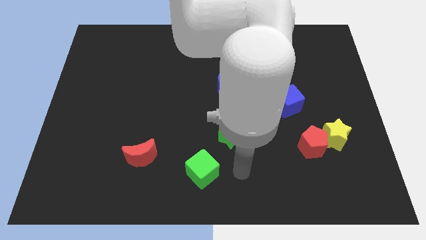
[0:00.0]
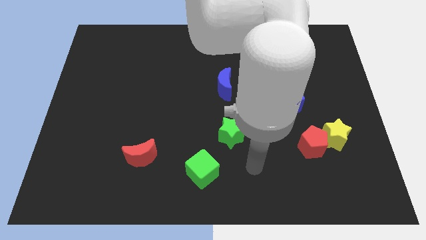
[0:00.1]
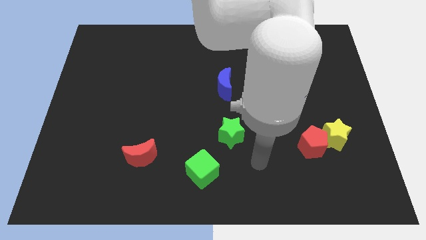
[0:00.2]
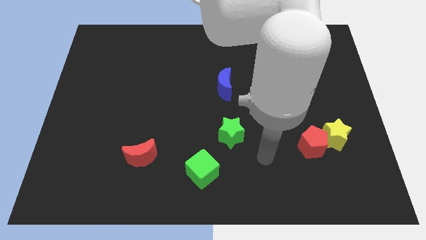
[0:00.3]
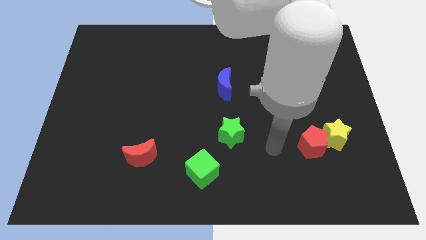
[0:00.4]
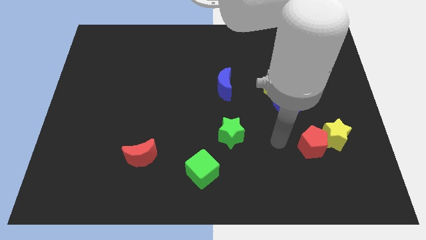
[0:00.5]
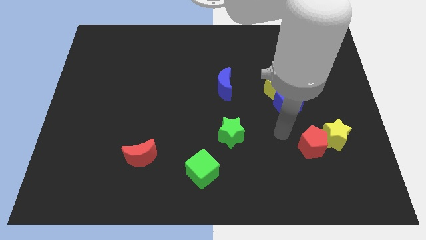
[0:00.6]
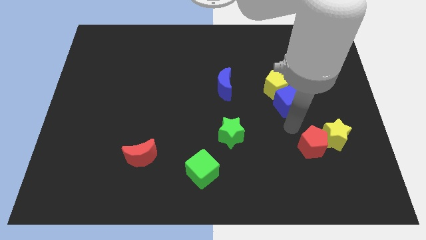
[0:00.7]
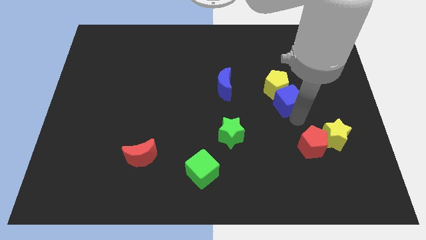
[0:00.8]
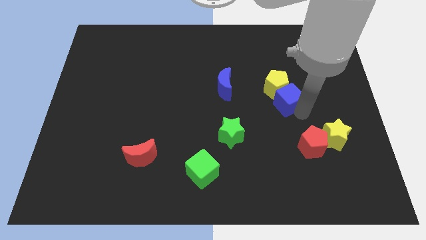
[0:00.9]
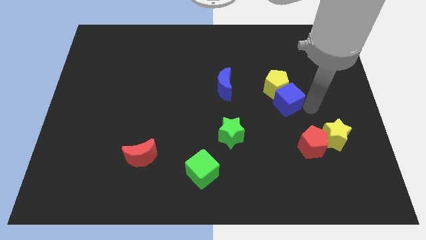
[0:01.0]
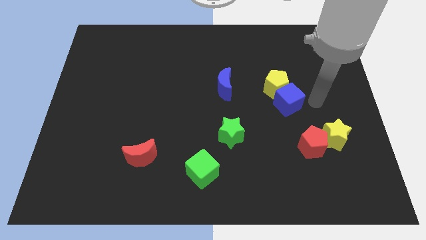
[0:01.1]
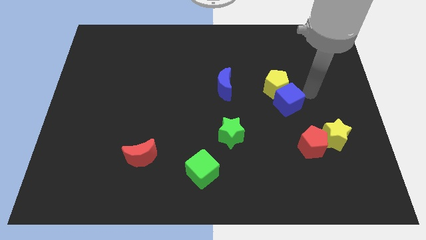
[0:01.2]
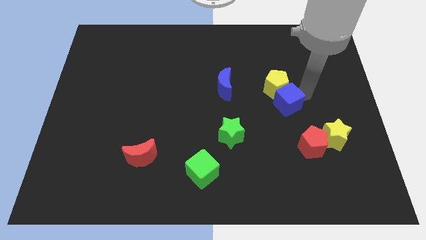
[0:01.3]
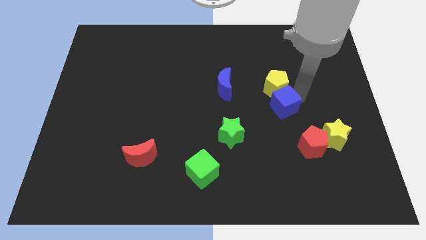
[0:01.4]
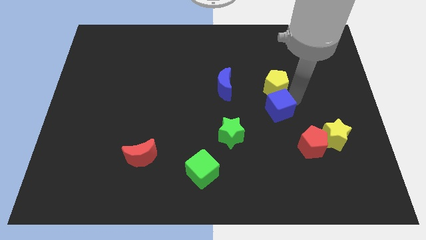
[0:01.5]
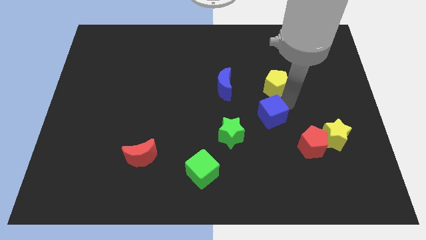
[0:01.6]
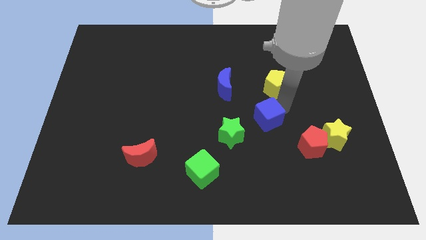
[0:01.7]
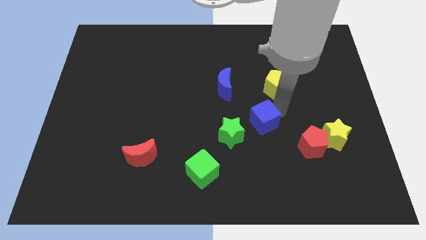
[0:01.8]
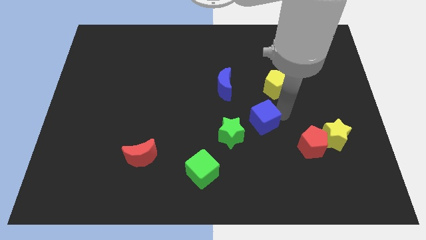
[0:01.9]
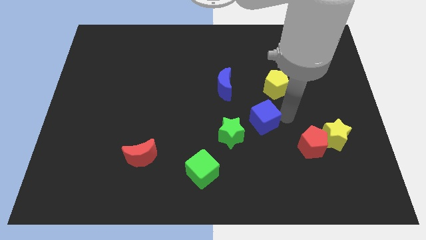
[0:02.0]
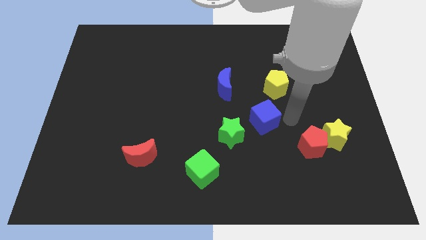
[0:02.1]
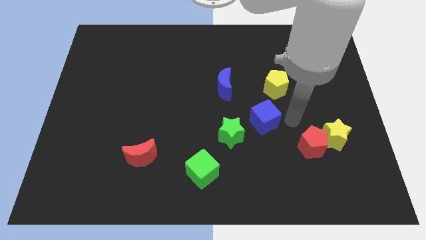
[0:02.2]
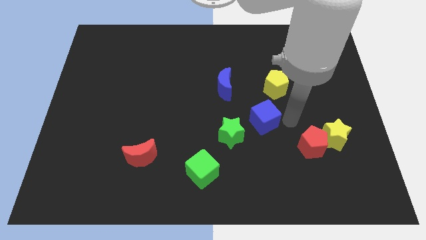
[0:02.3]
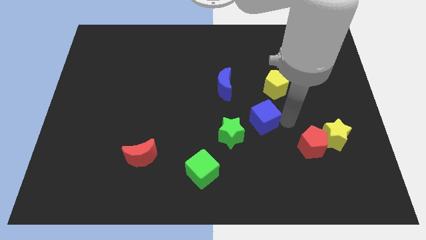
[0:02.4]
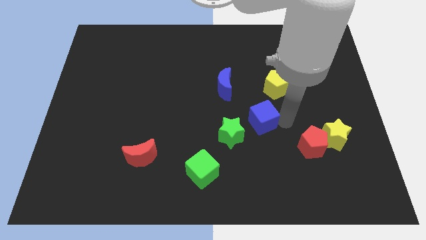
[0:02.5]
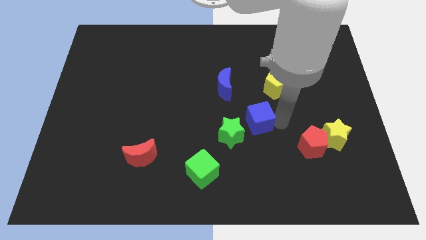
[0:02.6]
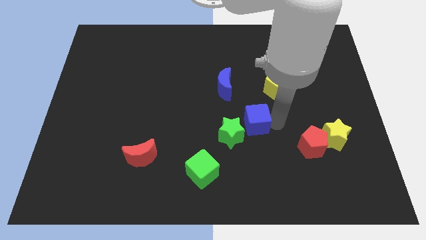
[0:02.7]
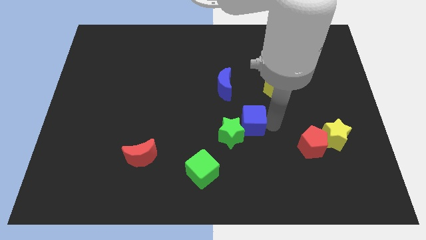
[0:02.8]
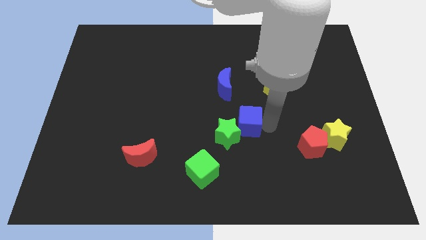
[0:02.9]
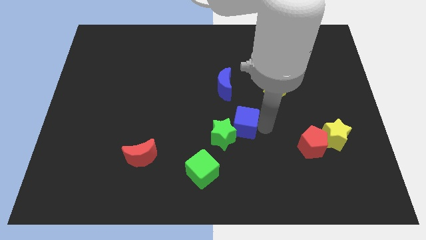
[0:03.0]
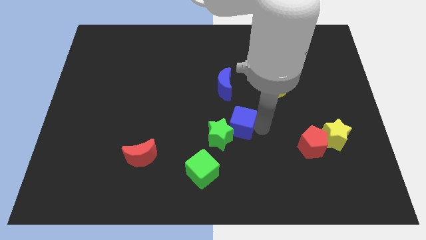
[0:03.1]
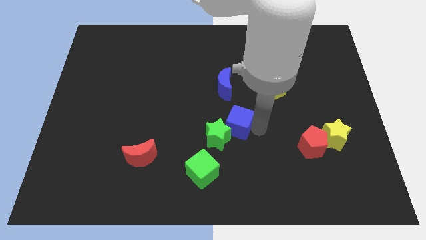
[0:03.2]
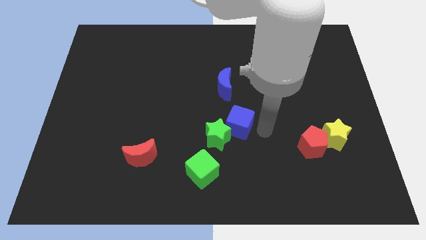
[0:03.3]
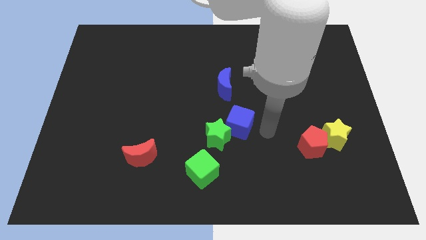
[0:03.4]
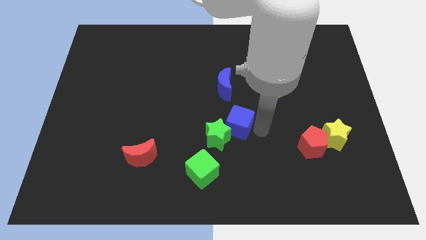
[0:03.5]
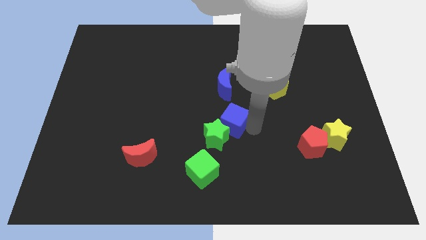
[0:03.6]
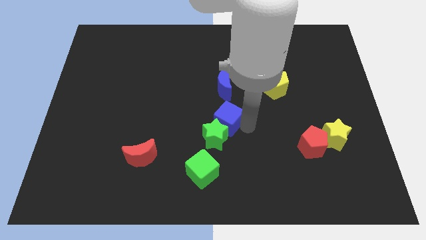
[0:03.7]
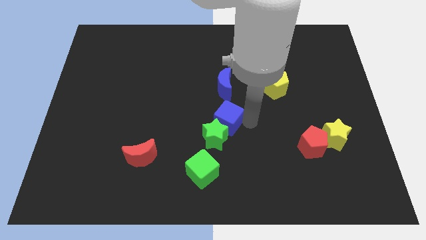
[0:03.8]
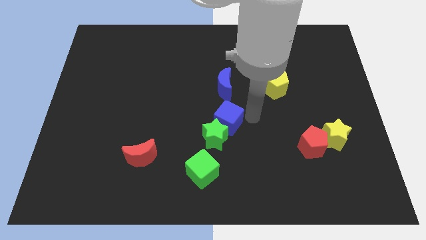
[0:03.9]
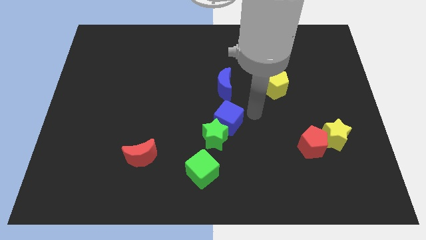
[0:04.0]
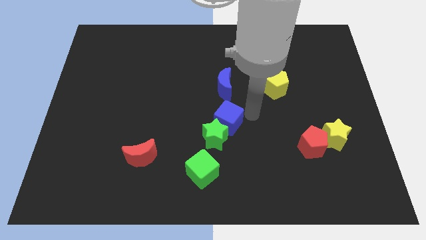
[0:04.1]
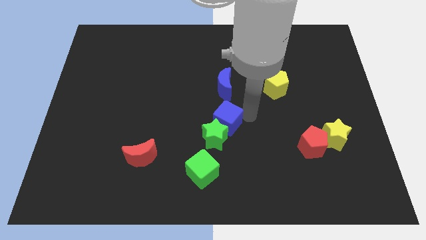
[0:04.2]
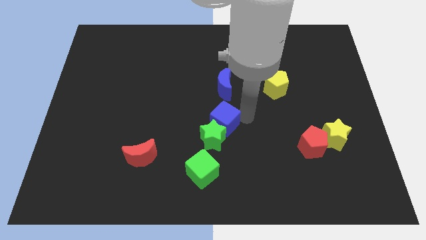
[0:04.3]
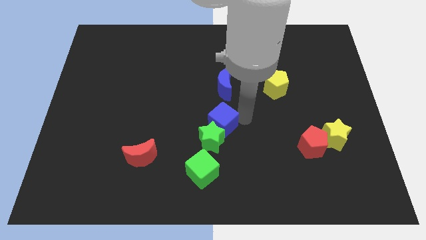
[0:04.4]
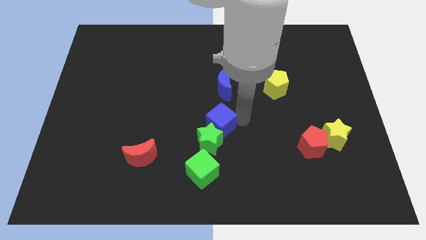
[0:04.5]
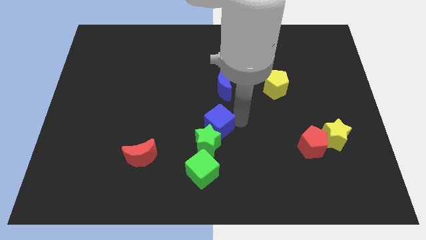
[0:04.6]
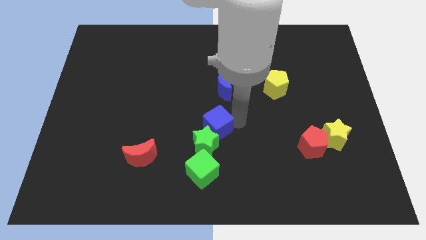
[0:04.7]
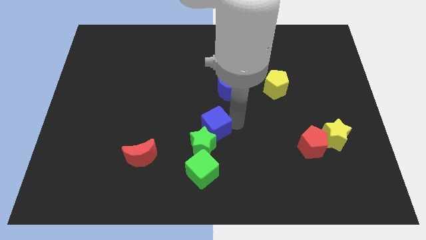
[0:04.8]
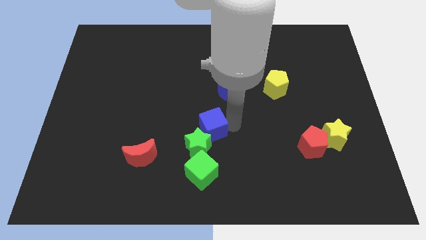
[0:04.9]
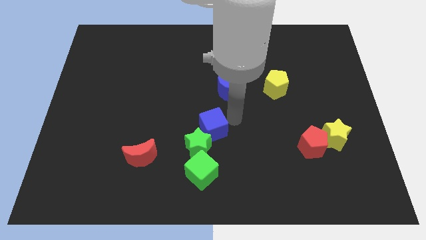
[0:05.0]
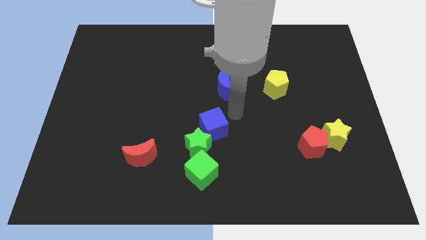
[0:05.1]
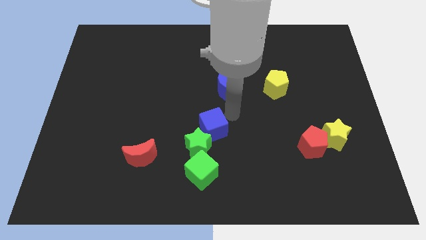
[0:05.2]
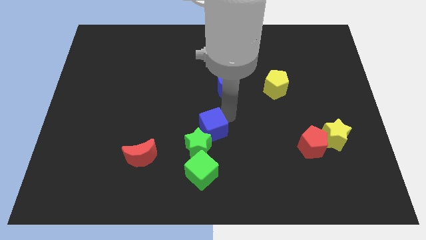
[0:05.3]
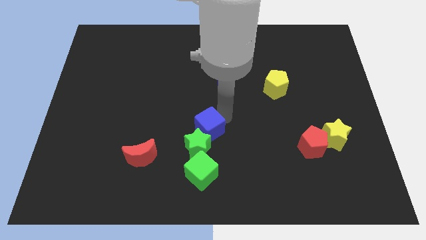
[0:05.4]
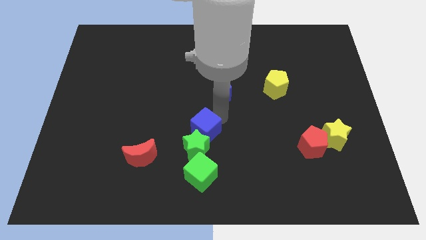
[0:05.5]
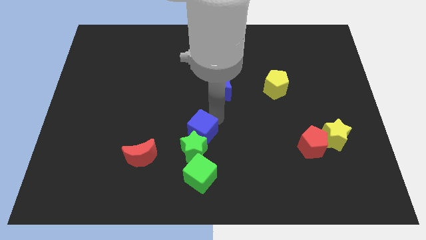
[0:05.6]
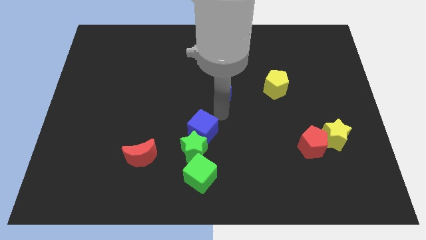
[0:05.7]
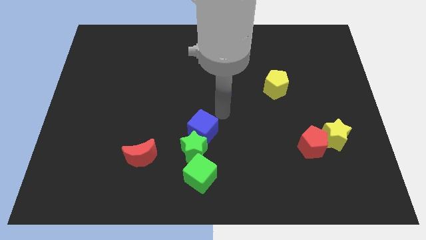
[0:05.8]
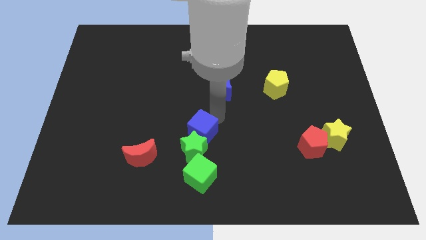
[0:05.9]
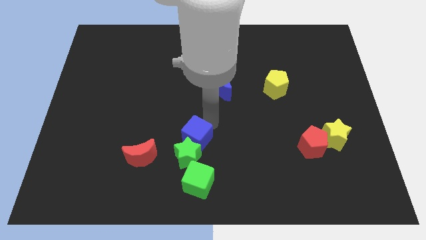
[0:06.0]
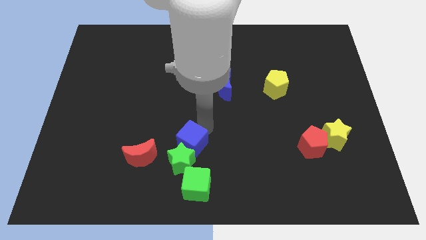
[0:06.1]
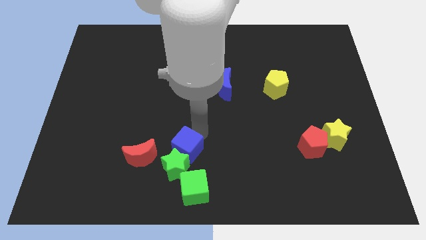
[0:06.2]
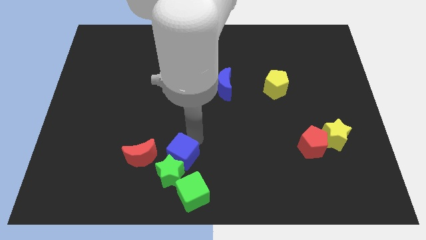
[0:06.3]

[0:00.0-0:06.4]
put the blue cube to the top left side of the green cube
